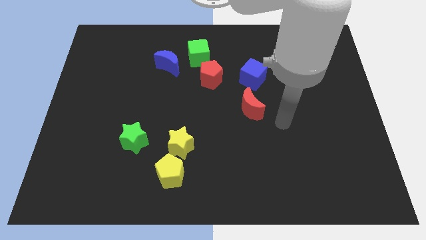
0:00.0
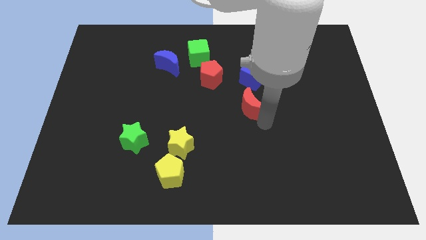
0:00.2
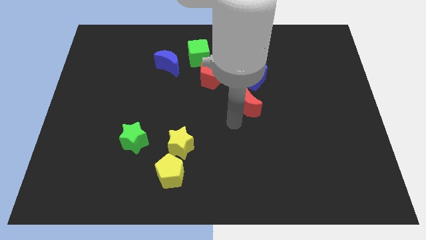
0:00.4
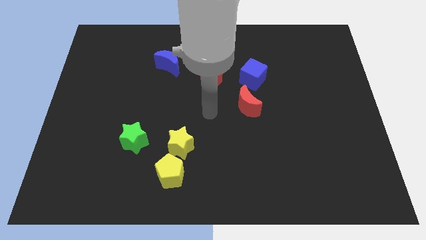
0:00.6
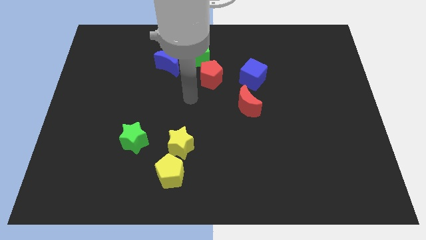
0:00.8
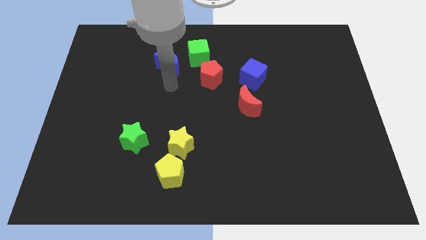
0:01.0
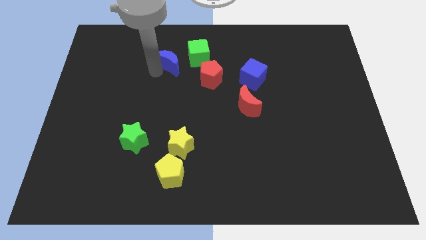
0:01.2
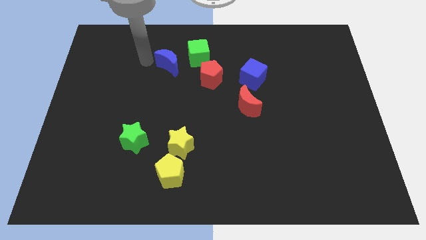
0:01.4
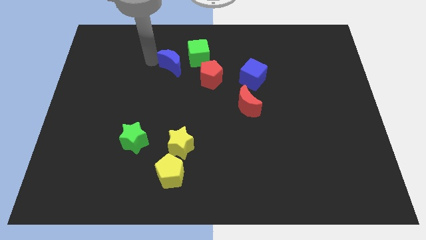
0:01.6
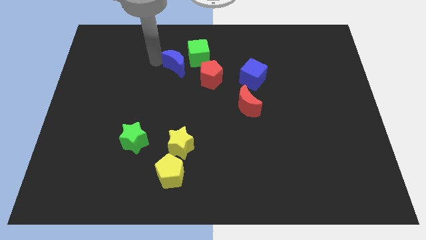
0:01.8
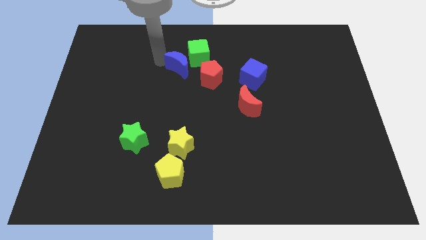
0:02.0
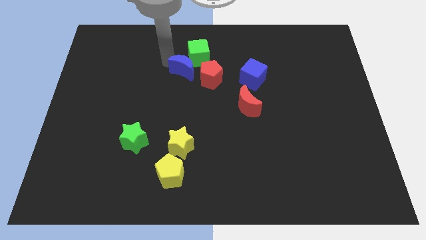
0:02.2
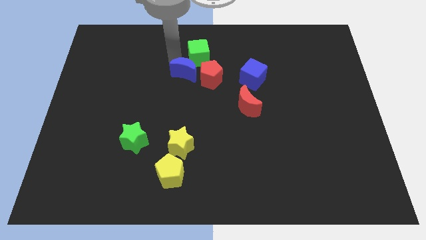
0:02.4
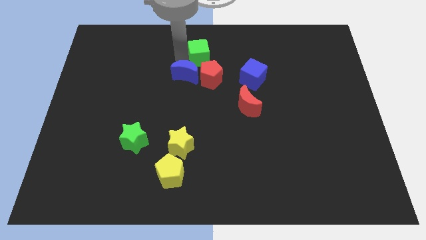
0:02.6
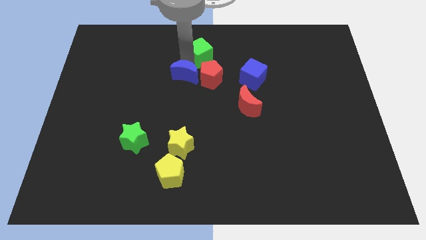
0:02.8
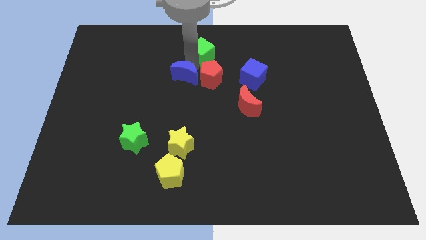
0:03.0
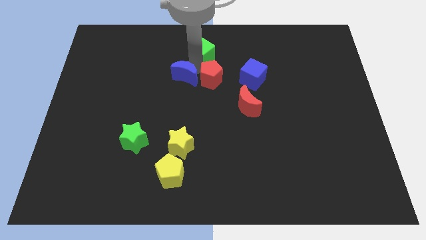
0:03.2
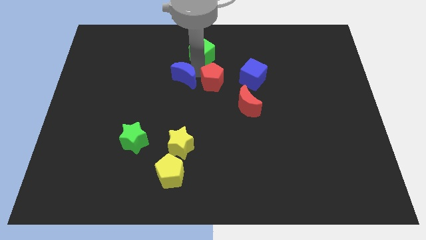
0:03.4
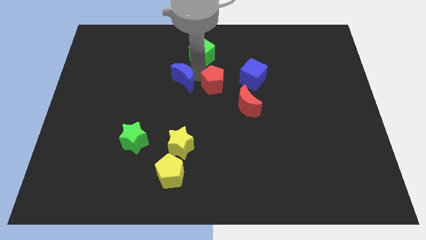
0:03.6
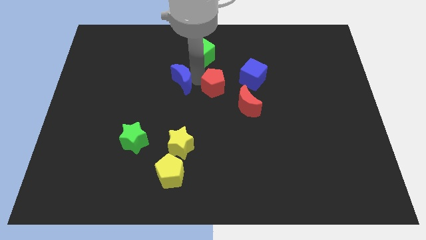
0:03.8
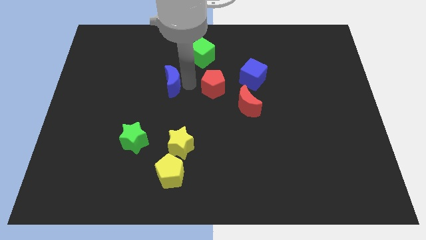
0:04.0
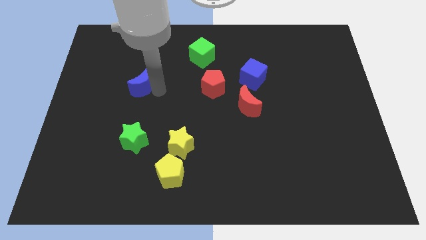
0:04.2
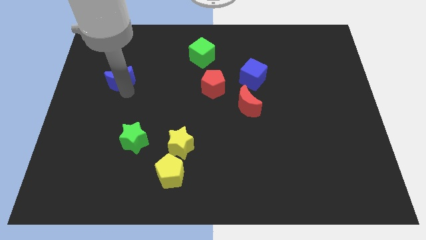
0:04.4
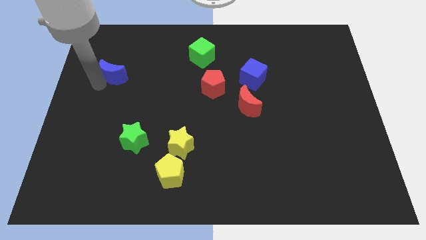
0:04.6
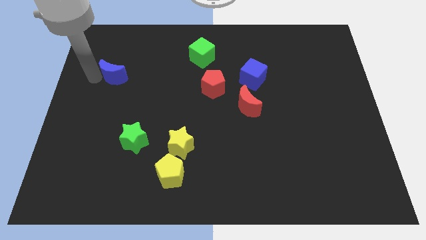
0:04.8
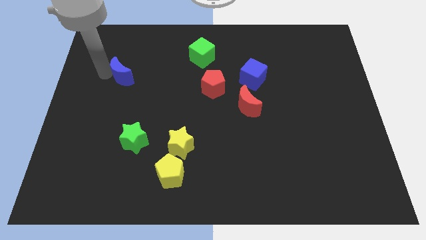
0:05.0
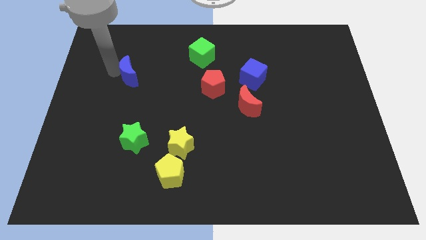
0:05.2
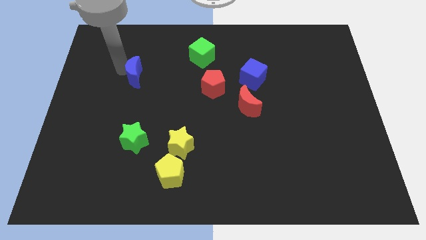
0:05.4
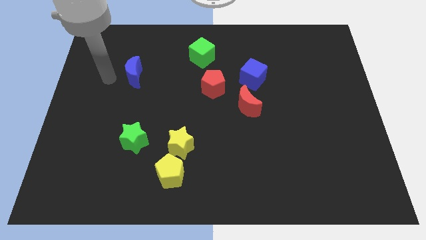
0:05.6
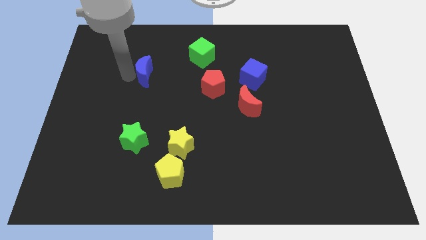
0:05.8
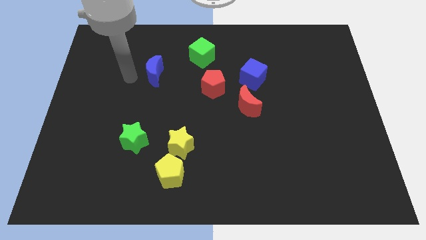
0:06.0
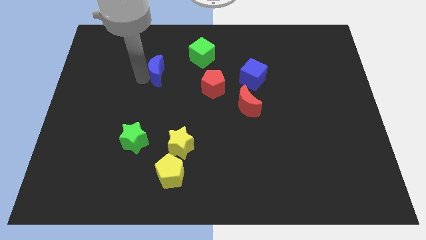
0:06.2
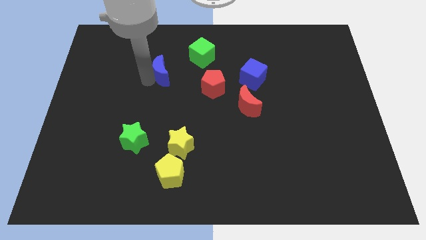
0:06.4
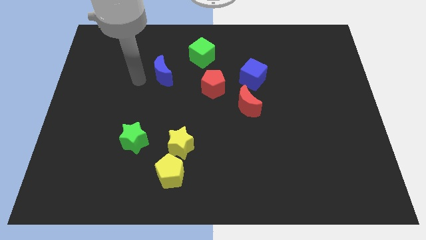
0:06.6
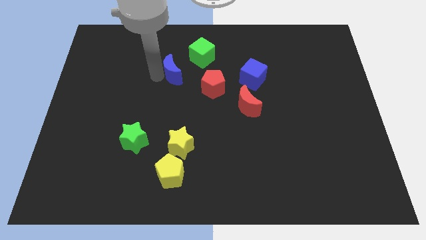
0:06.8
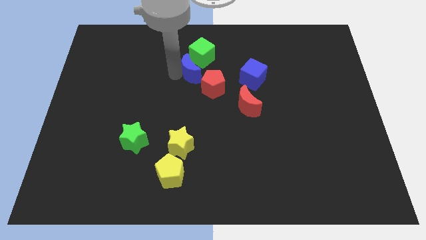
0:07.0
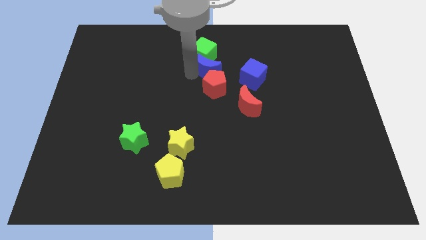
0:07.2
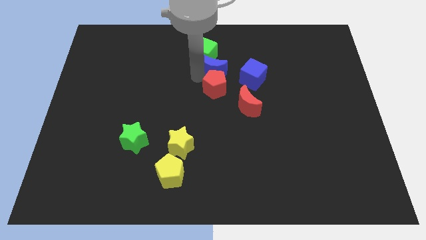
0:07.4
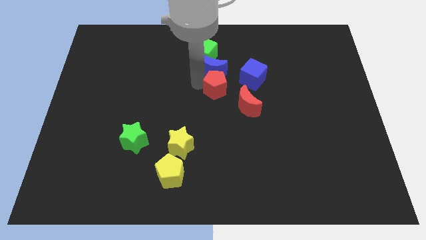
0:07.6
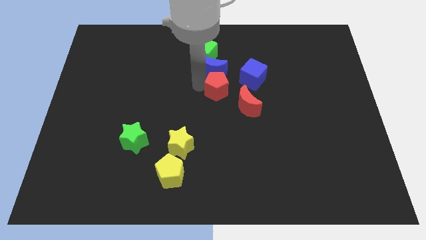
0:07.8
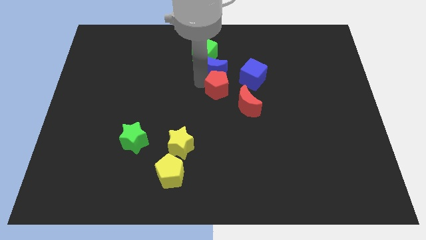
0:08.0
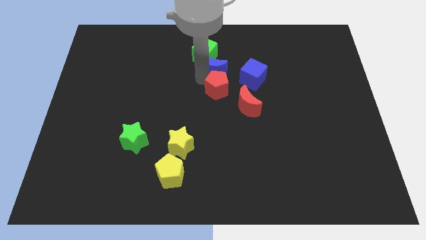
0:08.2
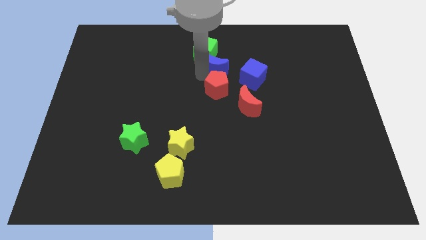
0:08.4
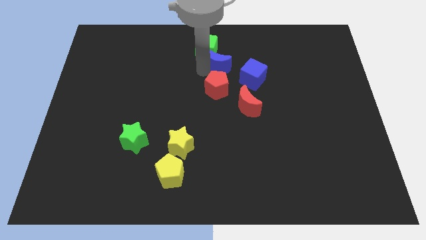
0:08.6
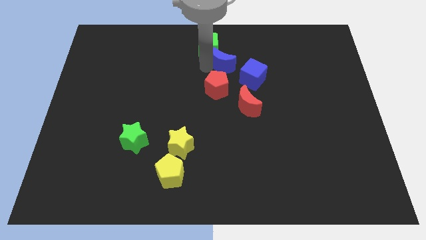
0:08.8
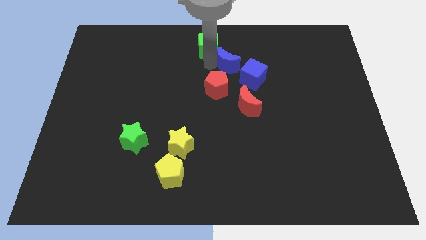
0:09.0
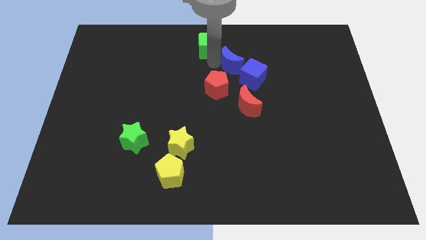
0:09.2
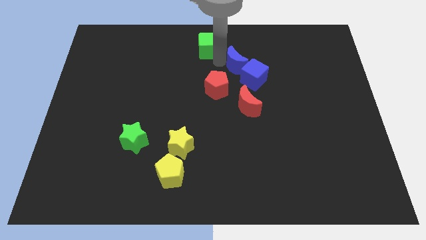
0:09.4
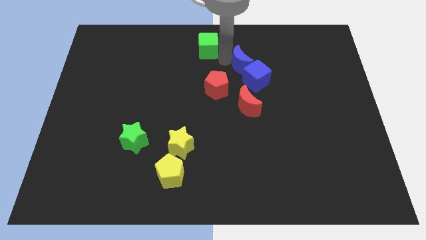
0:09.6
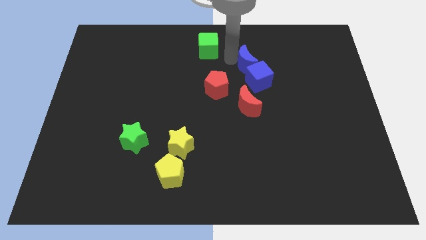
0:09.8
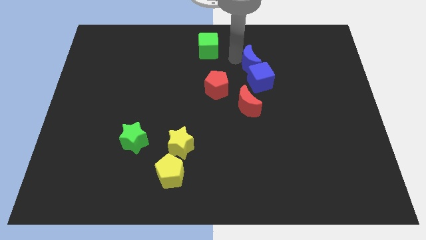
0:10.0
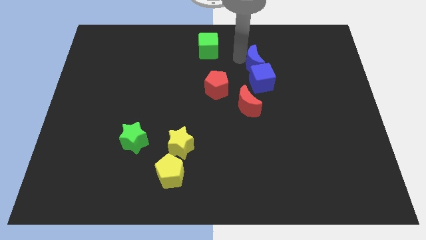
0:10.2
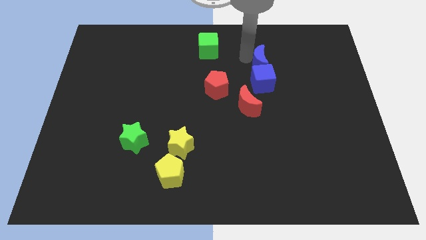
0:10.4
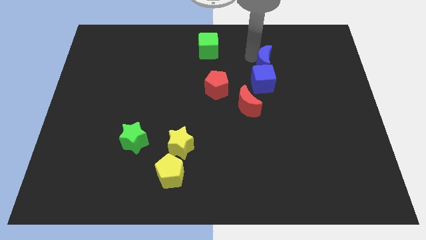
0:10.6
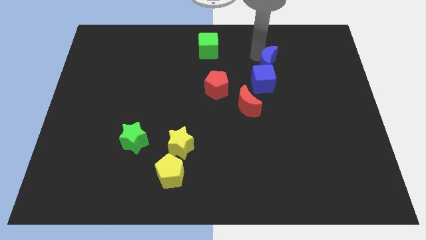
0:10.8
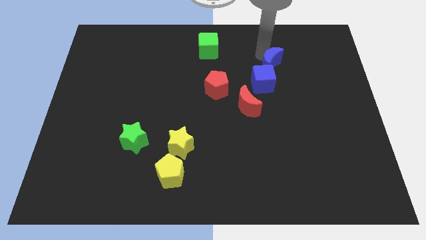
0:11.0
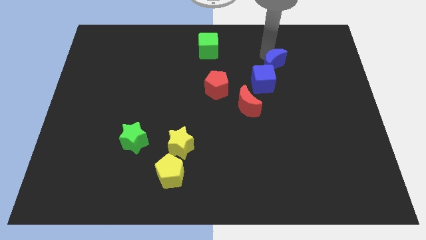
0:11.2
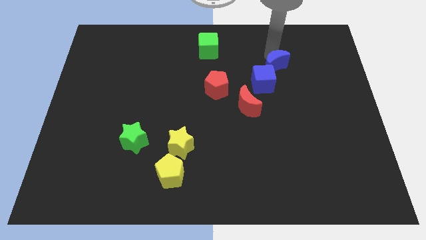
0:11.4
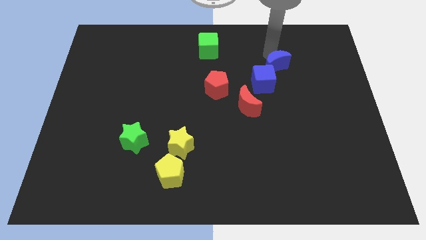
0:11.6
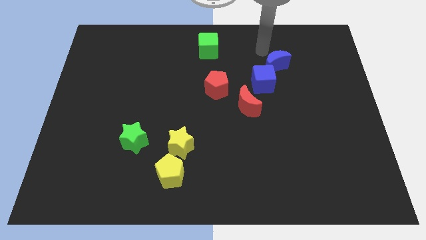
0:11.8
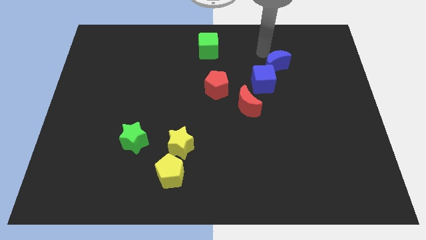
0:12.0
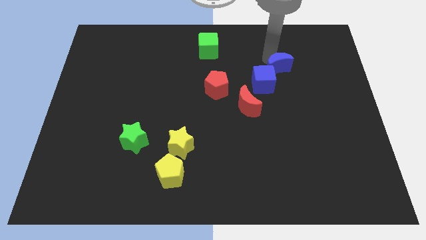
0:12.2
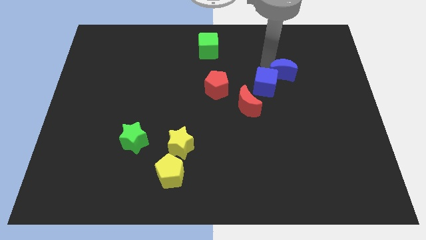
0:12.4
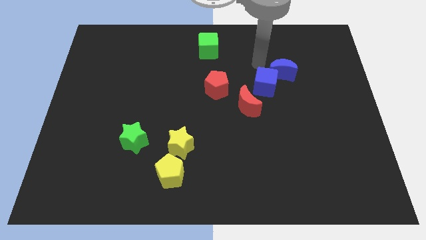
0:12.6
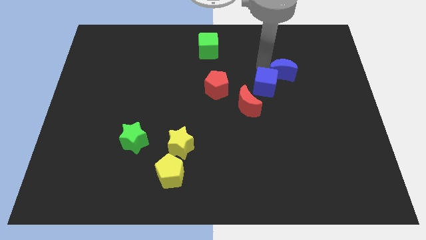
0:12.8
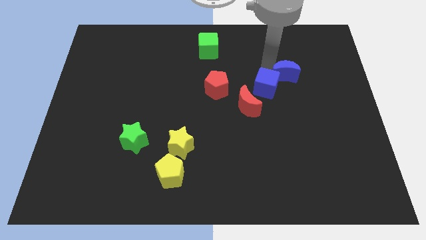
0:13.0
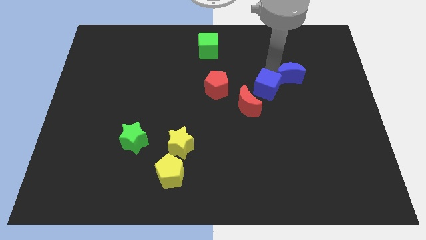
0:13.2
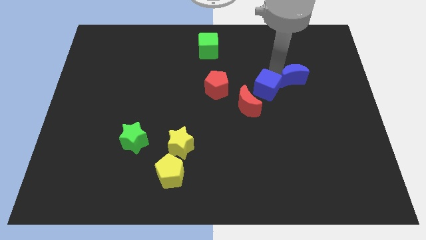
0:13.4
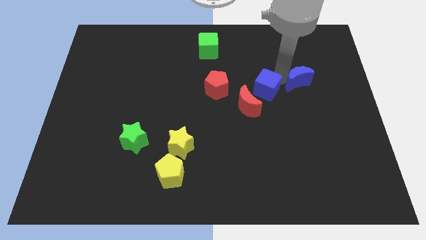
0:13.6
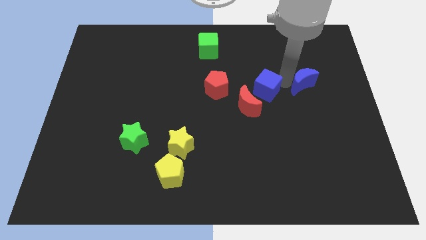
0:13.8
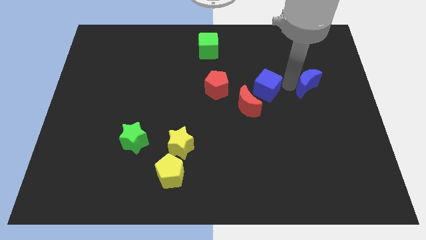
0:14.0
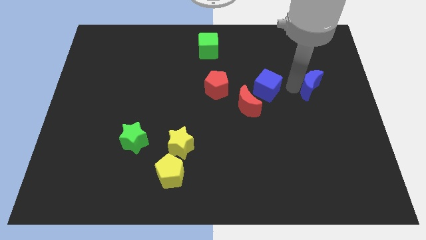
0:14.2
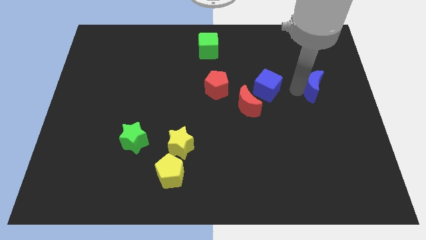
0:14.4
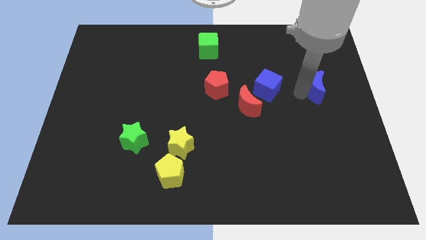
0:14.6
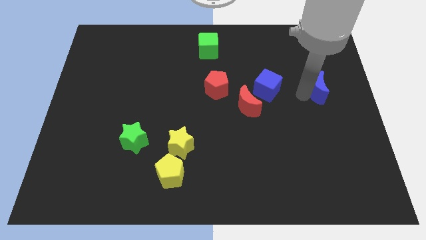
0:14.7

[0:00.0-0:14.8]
put the blue moon to the right side

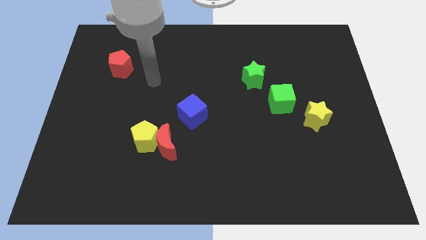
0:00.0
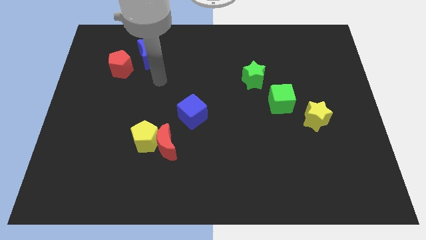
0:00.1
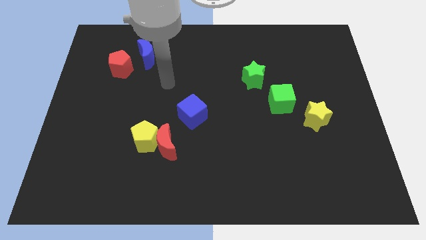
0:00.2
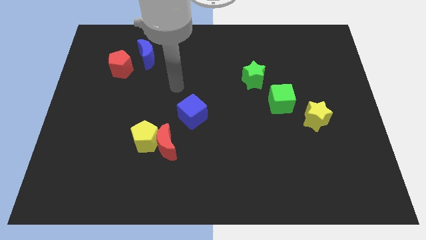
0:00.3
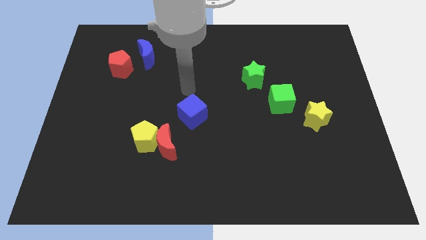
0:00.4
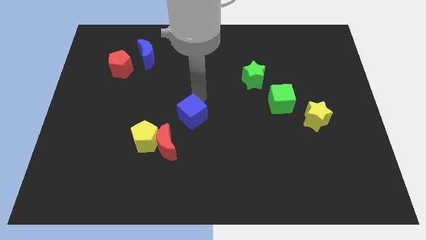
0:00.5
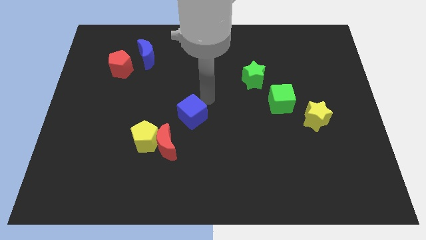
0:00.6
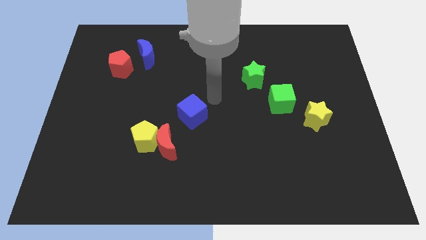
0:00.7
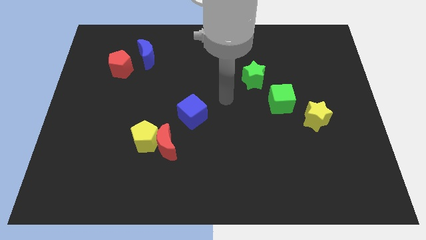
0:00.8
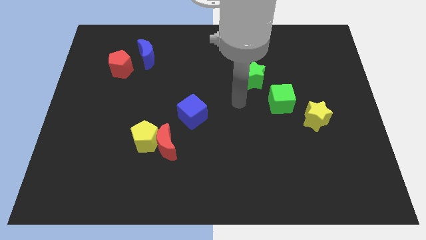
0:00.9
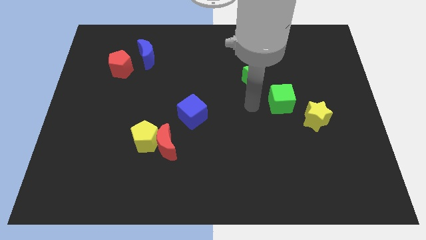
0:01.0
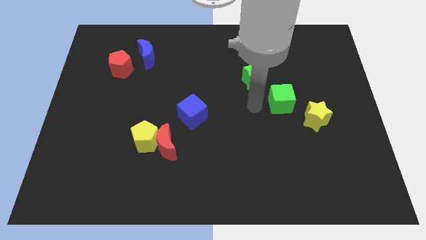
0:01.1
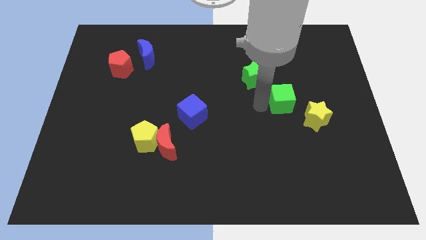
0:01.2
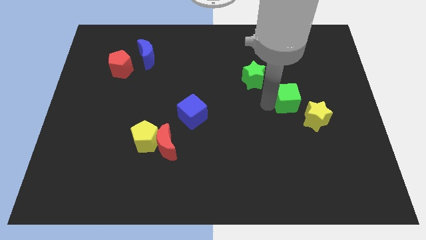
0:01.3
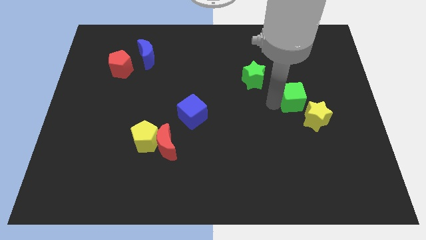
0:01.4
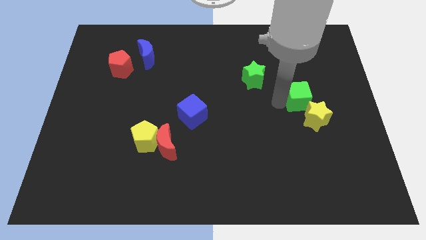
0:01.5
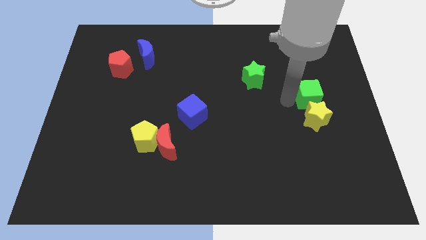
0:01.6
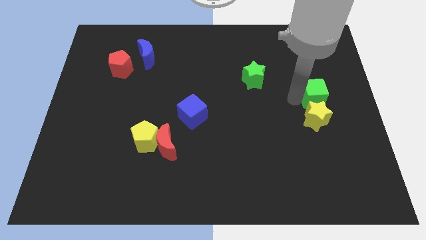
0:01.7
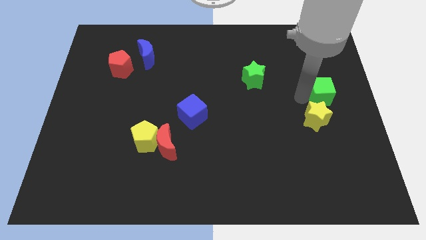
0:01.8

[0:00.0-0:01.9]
slide the green cube to the center right
